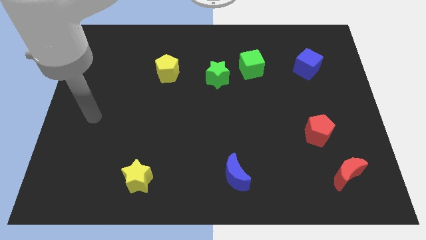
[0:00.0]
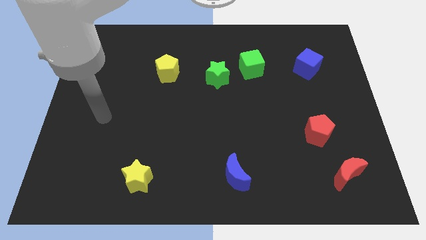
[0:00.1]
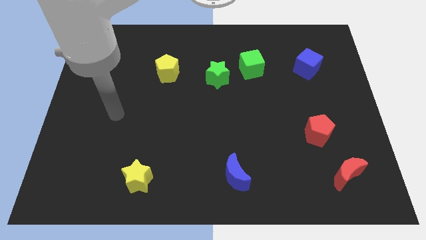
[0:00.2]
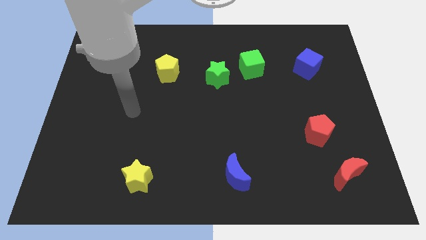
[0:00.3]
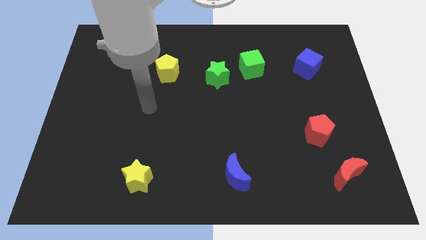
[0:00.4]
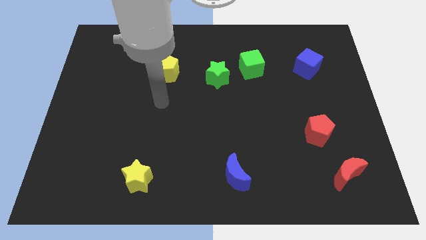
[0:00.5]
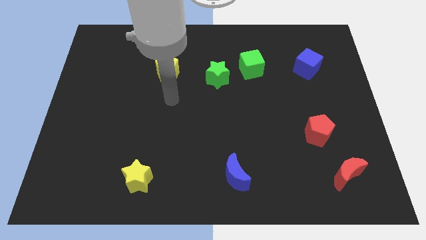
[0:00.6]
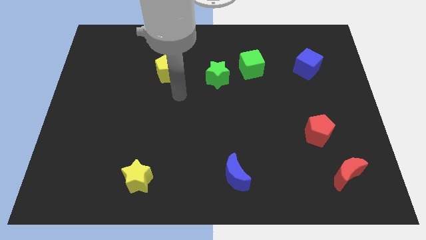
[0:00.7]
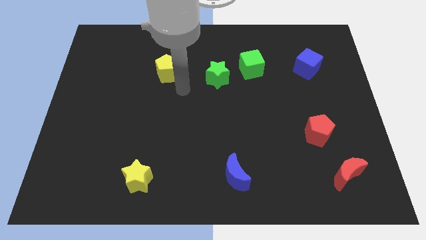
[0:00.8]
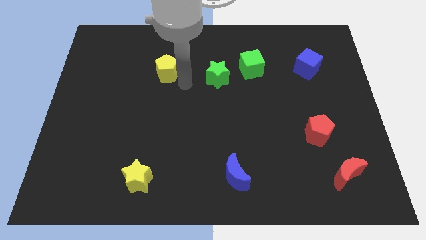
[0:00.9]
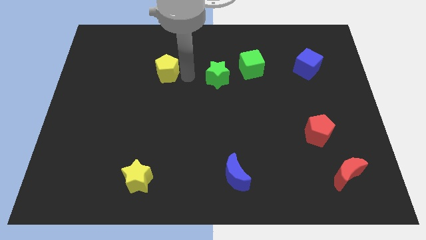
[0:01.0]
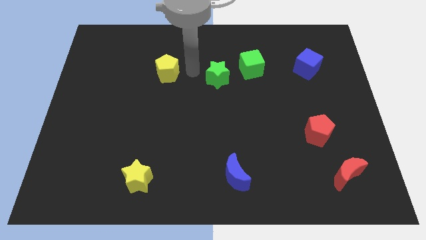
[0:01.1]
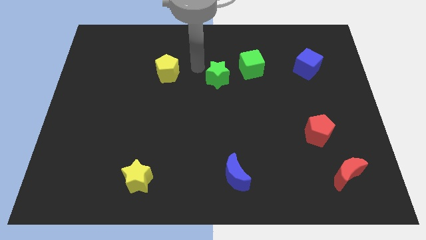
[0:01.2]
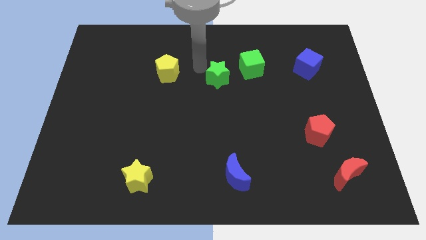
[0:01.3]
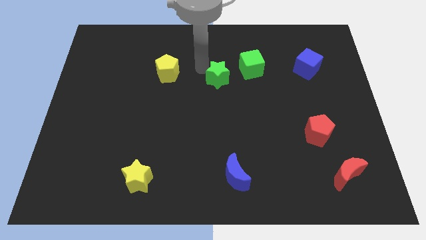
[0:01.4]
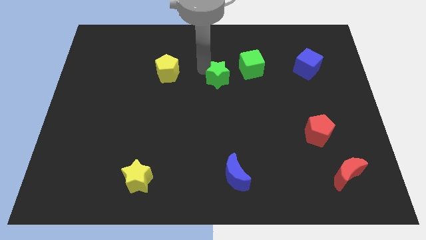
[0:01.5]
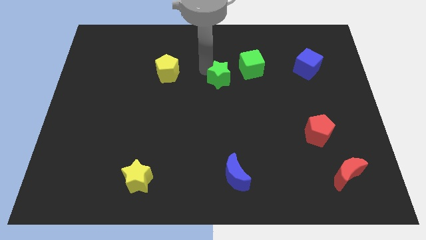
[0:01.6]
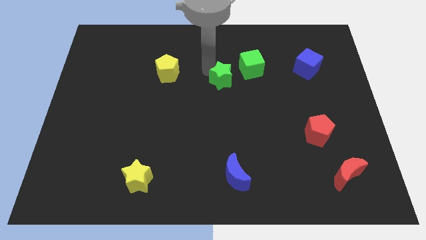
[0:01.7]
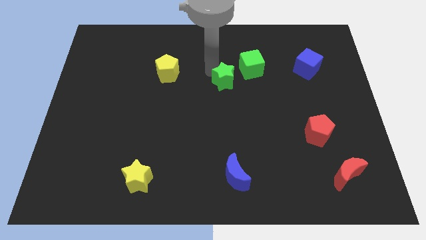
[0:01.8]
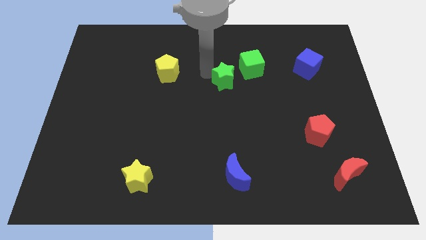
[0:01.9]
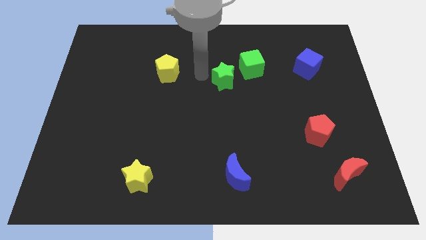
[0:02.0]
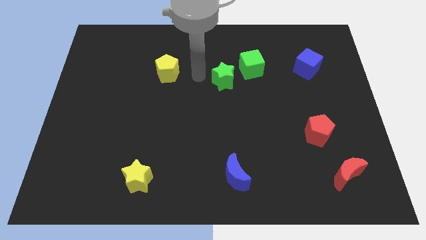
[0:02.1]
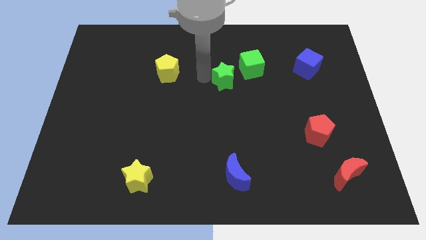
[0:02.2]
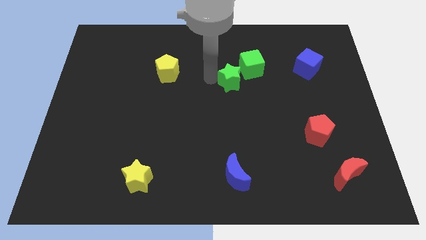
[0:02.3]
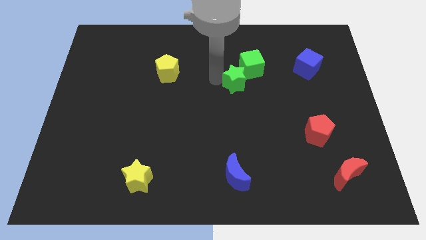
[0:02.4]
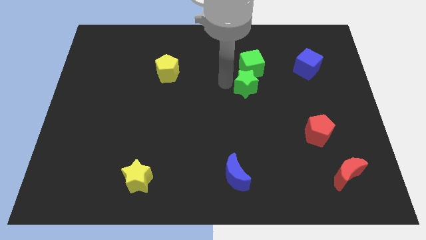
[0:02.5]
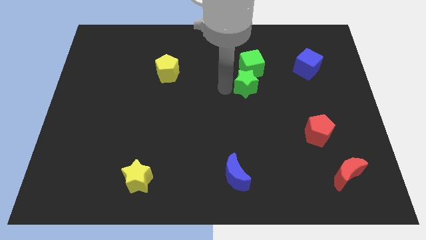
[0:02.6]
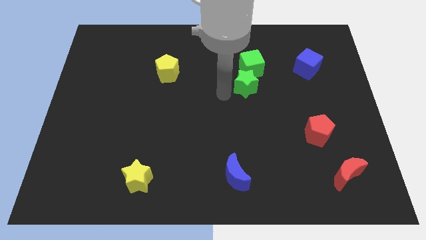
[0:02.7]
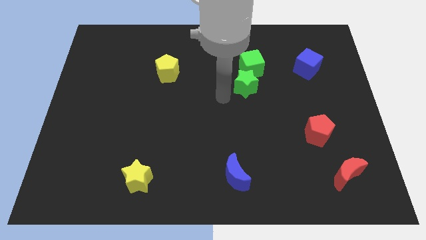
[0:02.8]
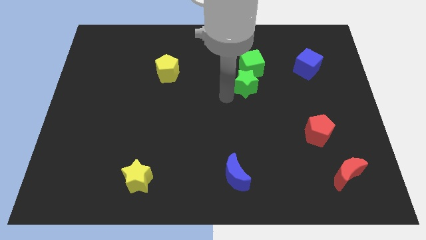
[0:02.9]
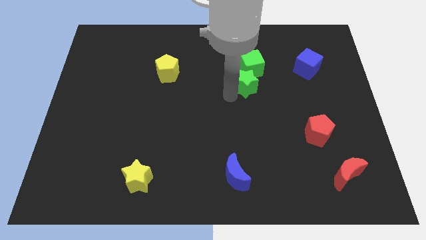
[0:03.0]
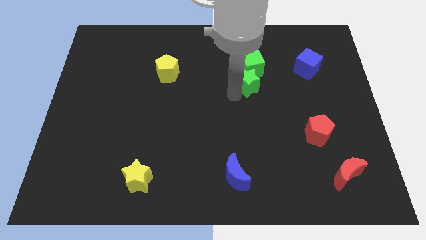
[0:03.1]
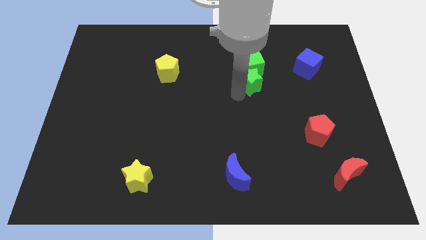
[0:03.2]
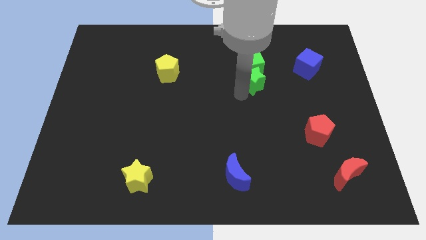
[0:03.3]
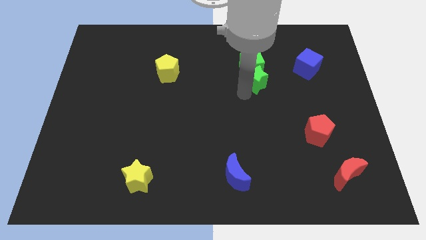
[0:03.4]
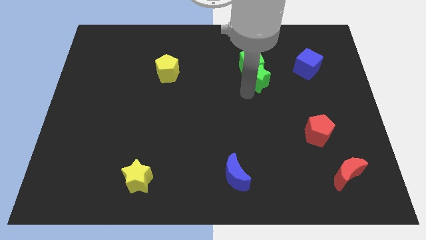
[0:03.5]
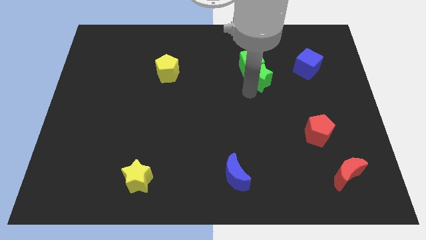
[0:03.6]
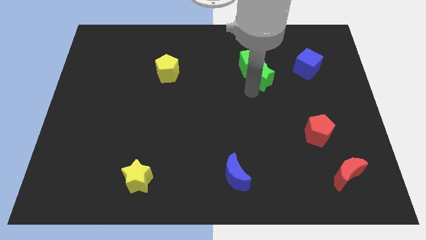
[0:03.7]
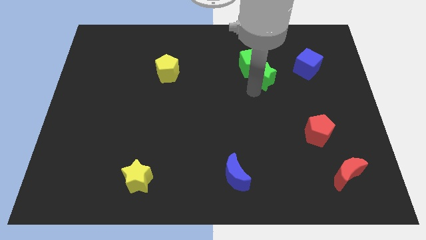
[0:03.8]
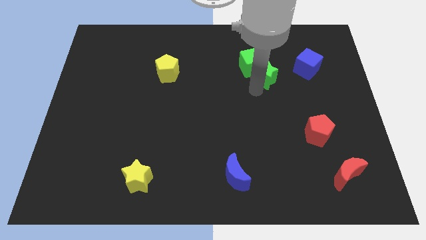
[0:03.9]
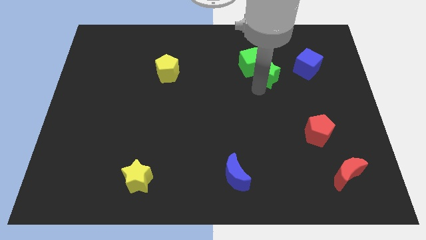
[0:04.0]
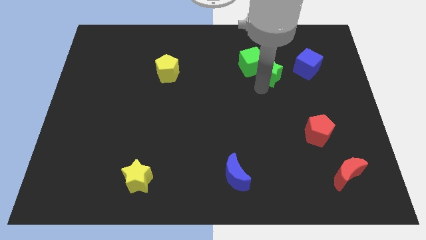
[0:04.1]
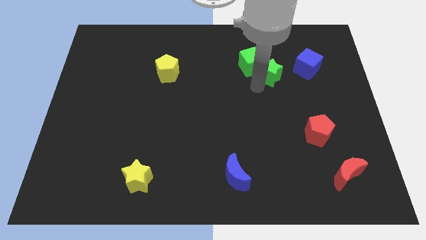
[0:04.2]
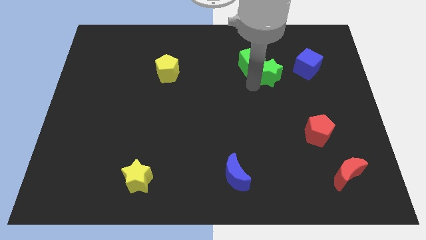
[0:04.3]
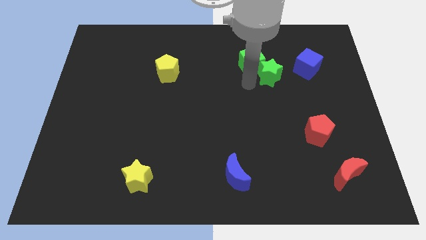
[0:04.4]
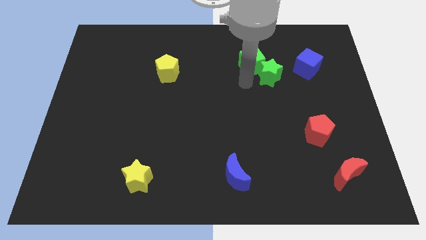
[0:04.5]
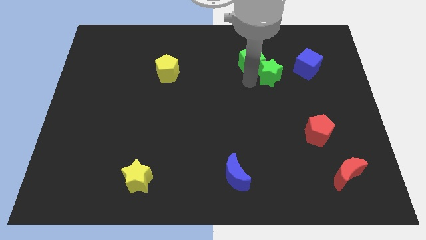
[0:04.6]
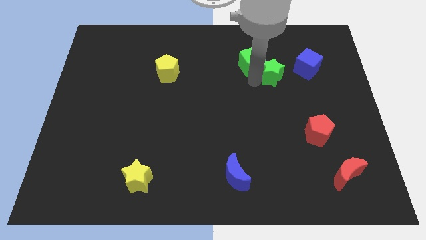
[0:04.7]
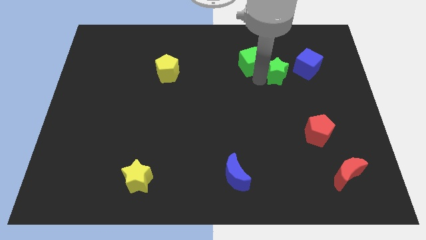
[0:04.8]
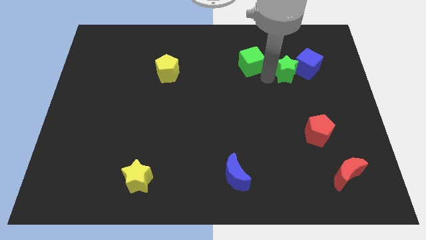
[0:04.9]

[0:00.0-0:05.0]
move the green star next to the blue cube

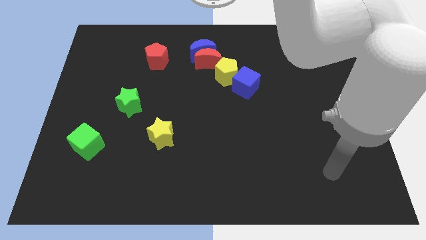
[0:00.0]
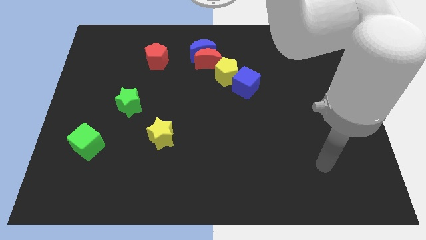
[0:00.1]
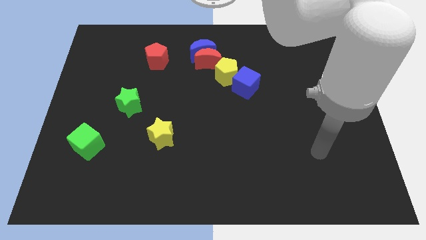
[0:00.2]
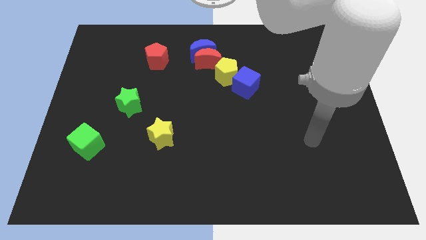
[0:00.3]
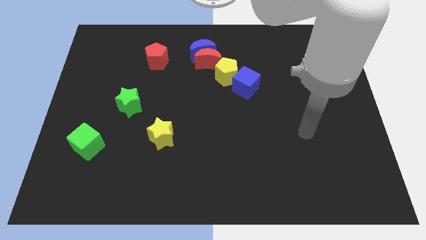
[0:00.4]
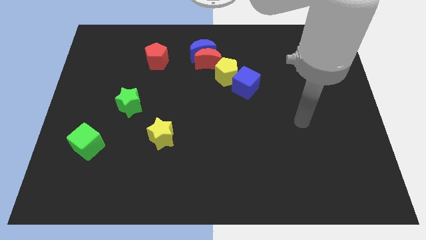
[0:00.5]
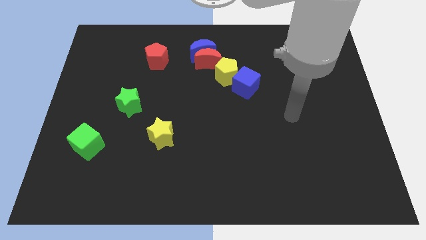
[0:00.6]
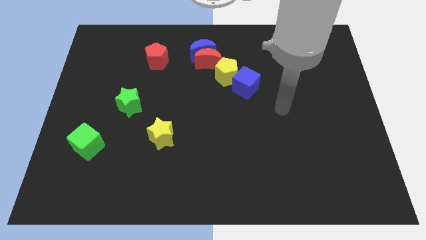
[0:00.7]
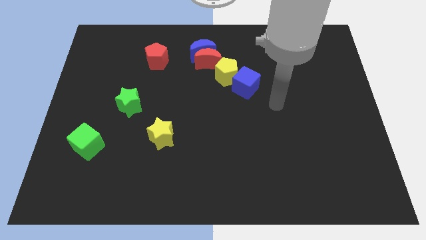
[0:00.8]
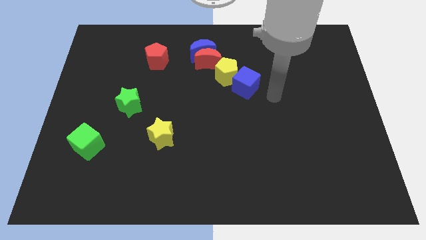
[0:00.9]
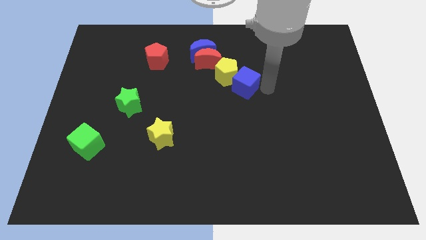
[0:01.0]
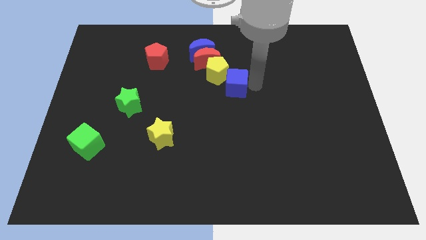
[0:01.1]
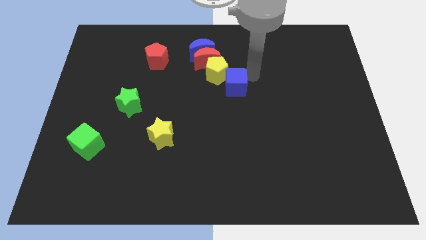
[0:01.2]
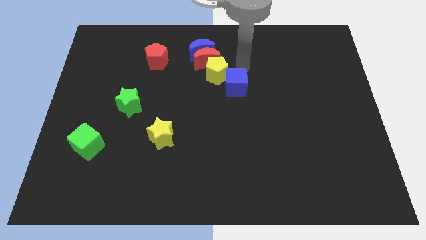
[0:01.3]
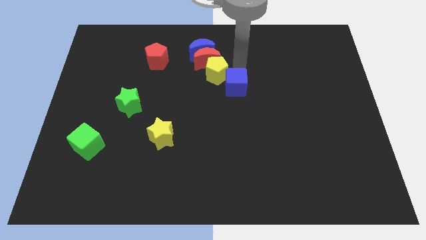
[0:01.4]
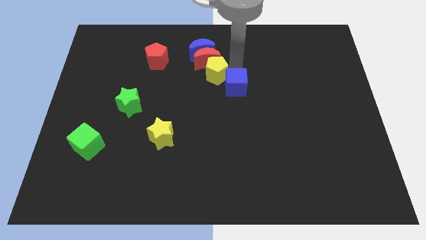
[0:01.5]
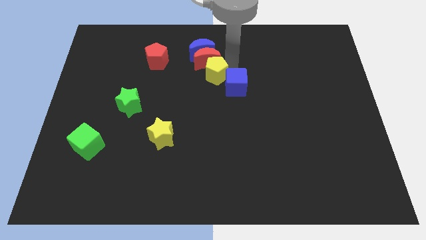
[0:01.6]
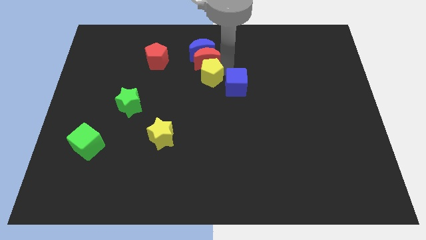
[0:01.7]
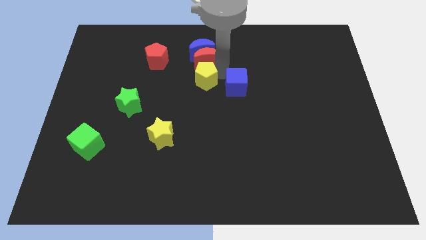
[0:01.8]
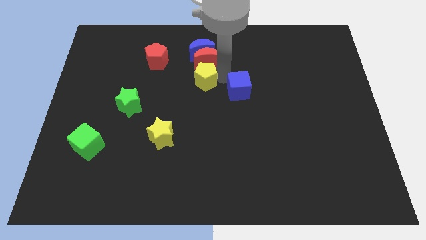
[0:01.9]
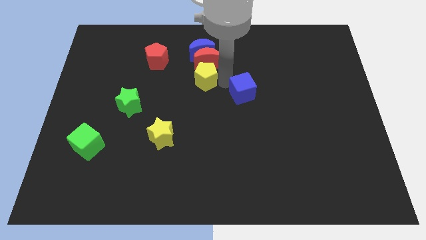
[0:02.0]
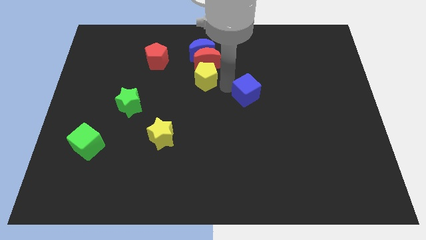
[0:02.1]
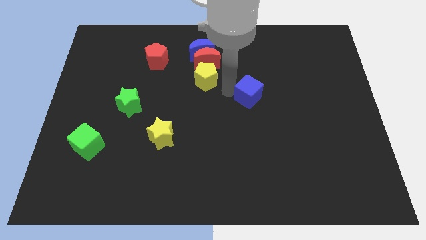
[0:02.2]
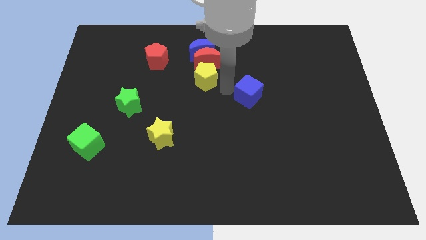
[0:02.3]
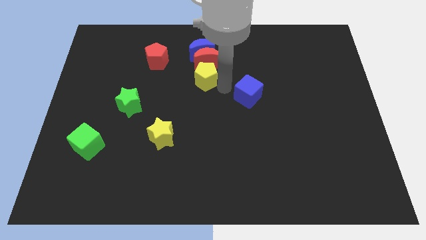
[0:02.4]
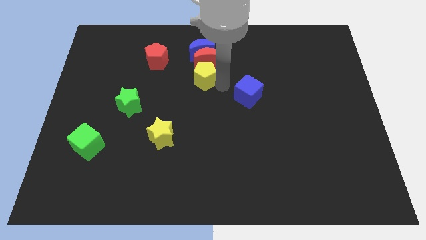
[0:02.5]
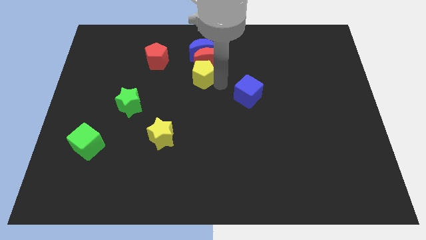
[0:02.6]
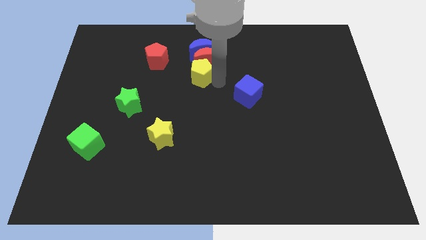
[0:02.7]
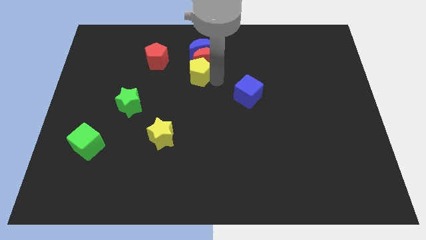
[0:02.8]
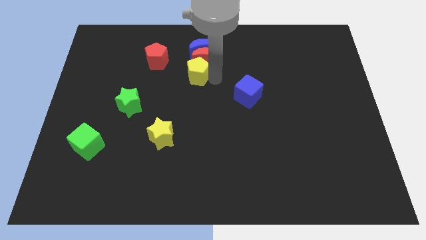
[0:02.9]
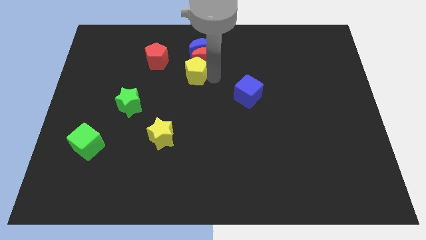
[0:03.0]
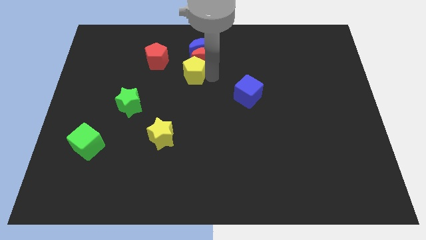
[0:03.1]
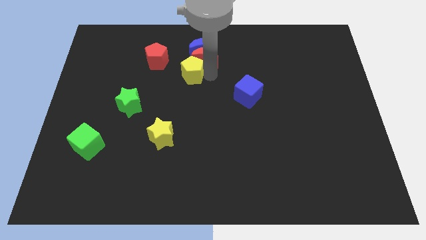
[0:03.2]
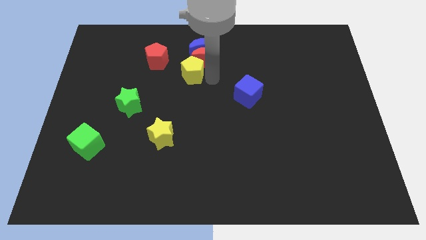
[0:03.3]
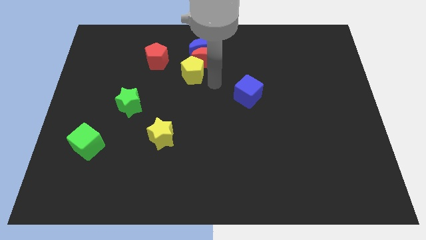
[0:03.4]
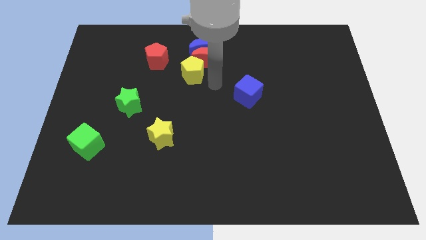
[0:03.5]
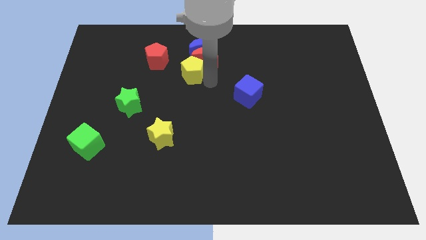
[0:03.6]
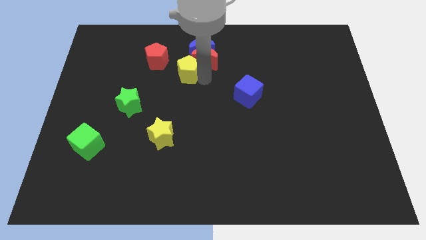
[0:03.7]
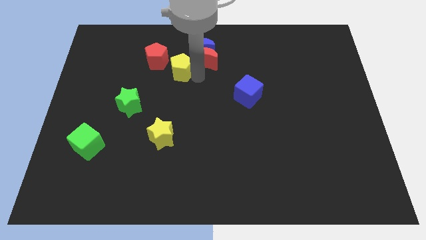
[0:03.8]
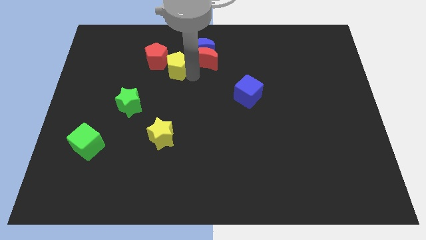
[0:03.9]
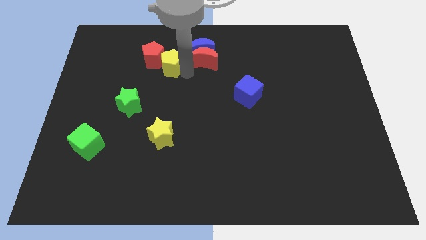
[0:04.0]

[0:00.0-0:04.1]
move the yellow pentagon towards the red pentagon
